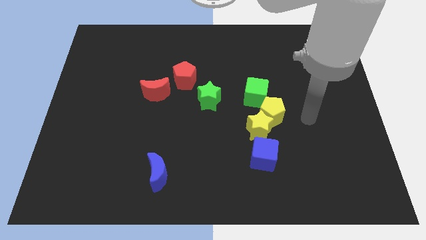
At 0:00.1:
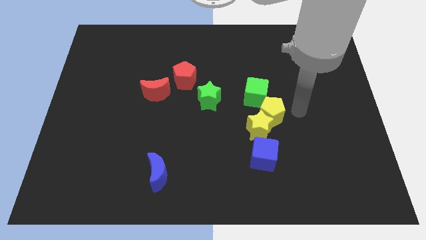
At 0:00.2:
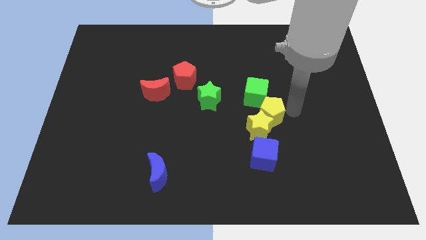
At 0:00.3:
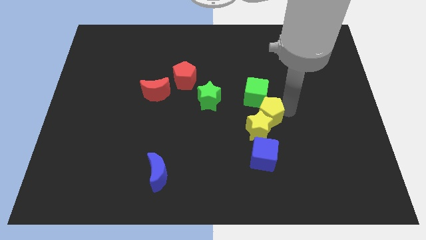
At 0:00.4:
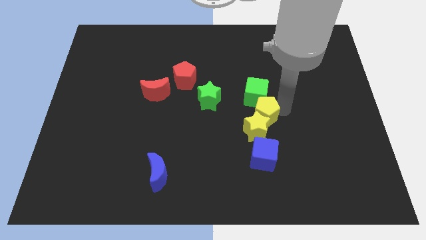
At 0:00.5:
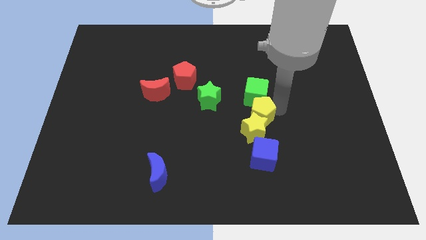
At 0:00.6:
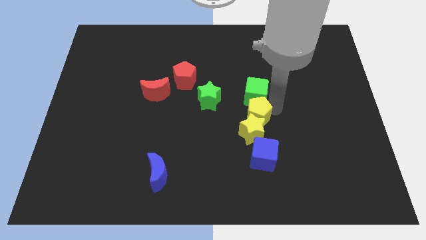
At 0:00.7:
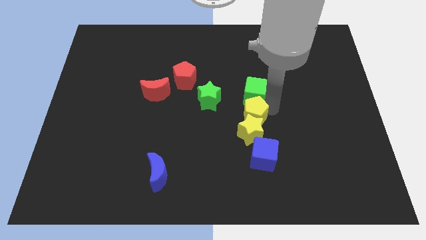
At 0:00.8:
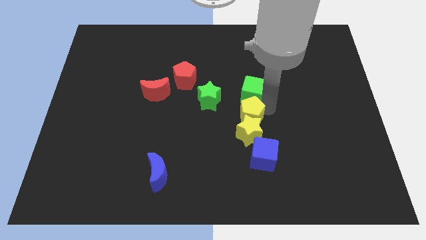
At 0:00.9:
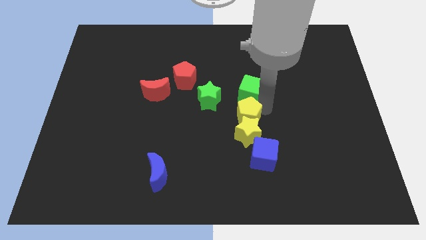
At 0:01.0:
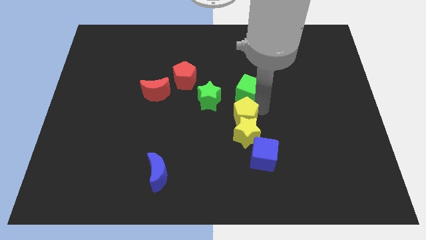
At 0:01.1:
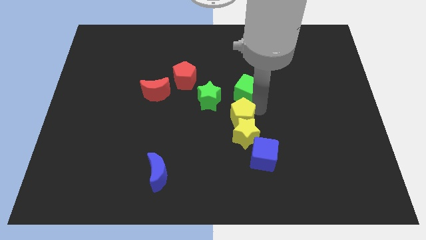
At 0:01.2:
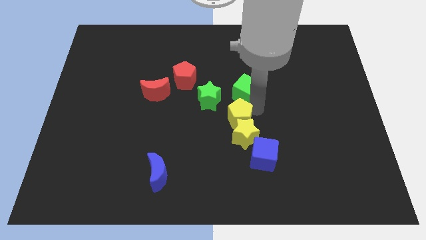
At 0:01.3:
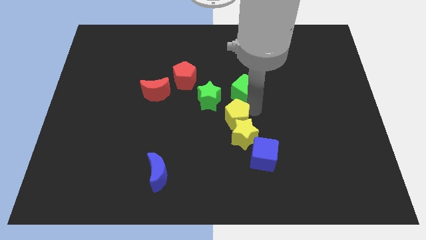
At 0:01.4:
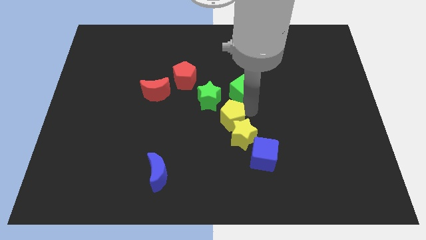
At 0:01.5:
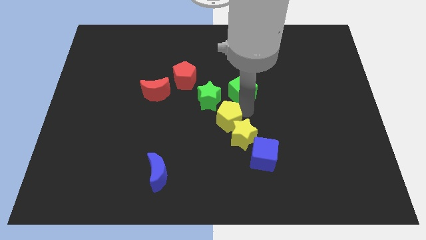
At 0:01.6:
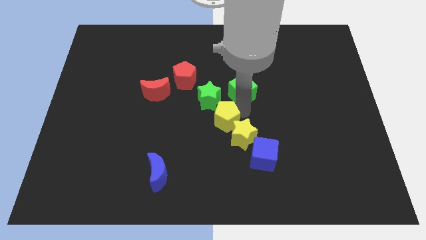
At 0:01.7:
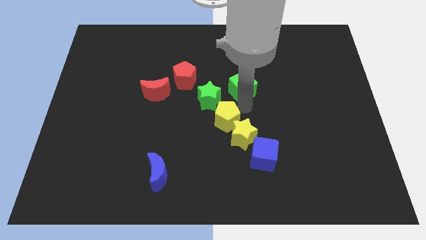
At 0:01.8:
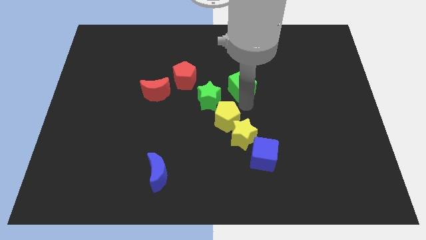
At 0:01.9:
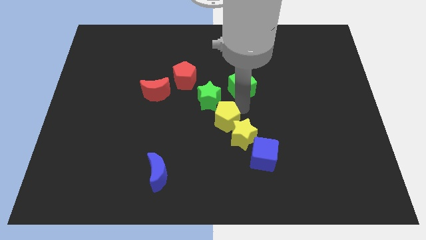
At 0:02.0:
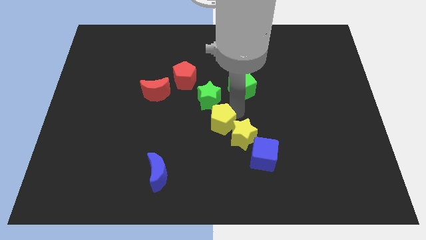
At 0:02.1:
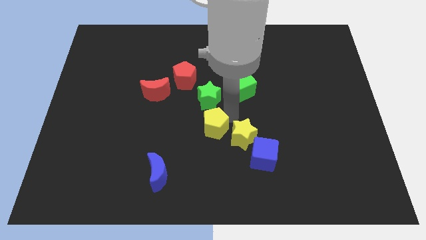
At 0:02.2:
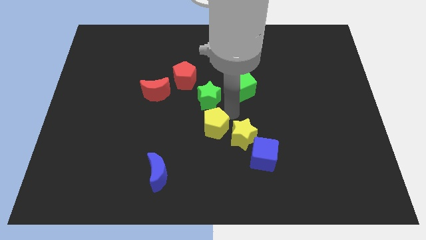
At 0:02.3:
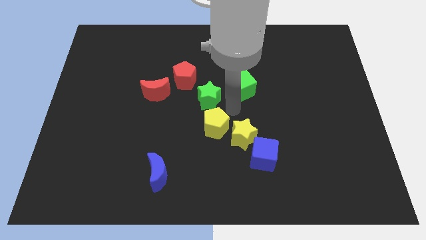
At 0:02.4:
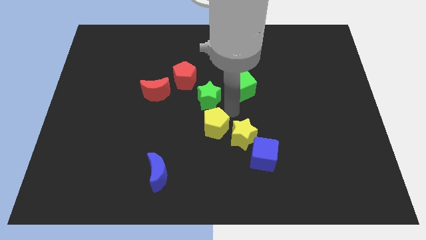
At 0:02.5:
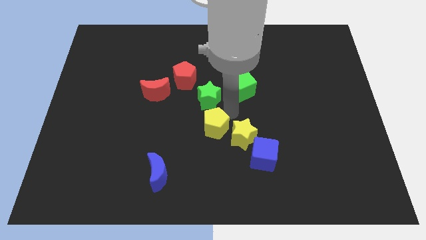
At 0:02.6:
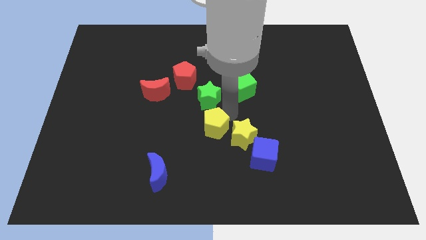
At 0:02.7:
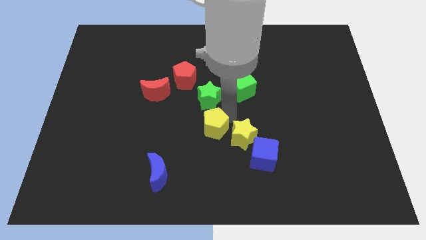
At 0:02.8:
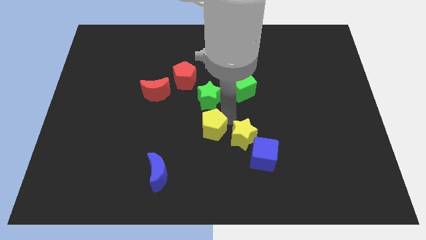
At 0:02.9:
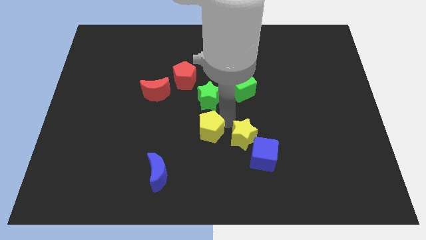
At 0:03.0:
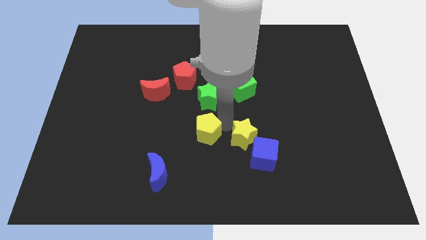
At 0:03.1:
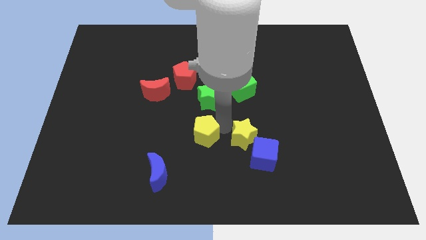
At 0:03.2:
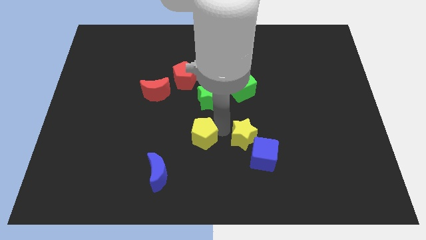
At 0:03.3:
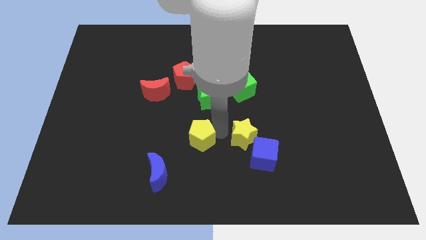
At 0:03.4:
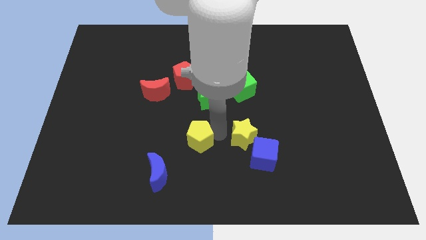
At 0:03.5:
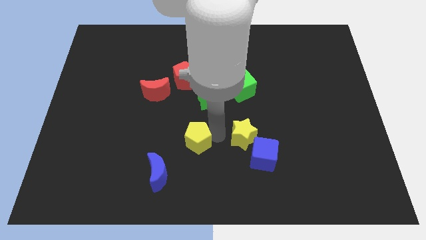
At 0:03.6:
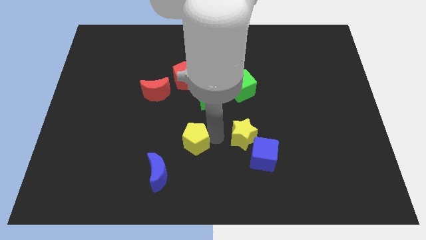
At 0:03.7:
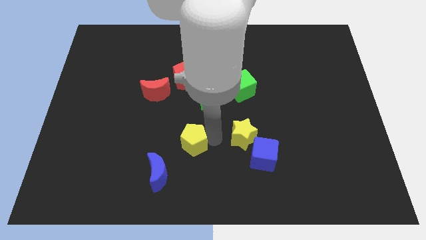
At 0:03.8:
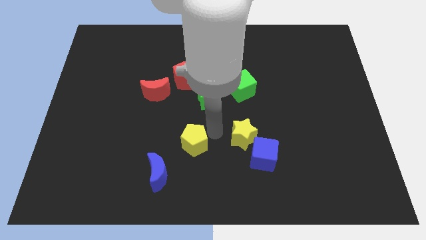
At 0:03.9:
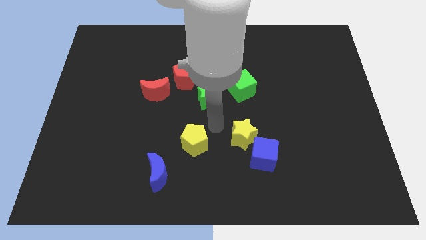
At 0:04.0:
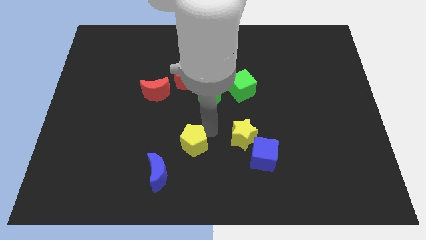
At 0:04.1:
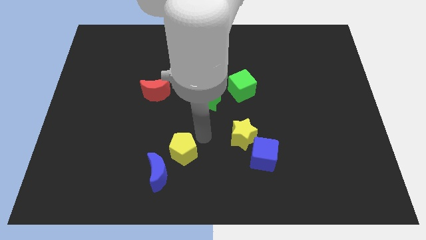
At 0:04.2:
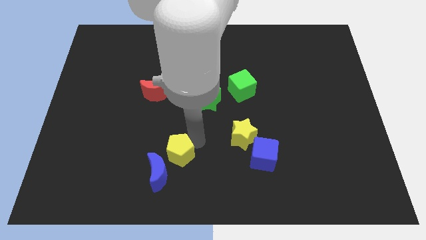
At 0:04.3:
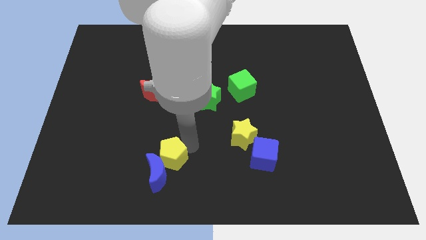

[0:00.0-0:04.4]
push the yellow pentagon close to the blue moon

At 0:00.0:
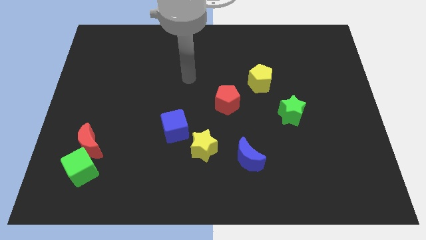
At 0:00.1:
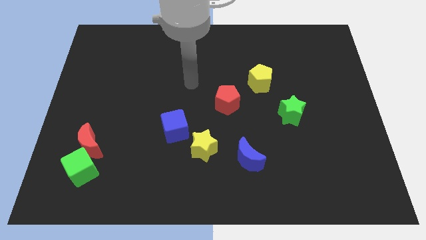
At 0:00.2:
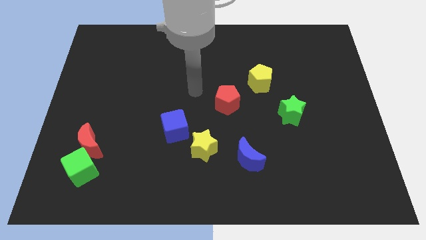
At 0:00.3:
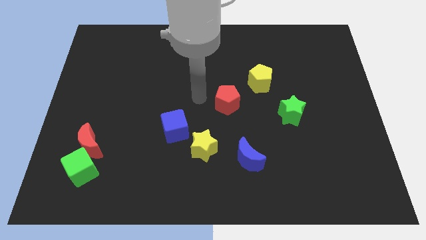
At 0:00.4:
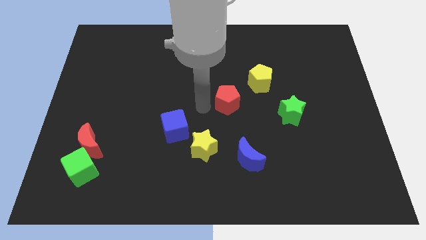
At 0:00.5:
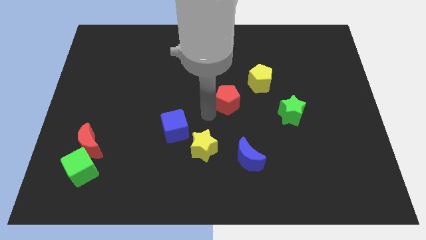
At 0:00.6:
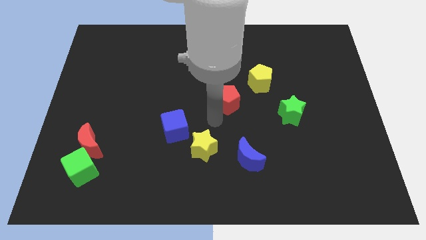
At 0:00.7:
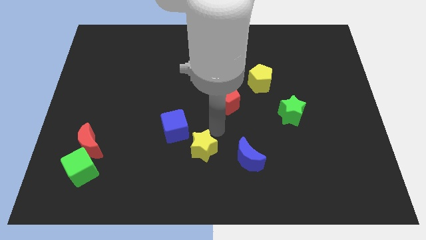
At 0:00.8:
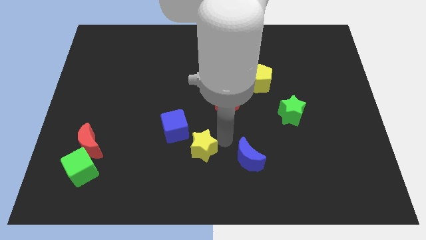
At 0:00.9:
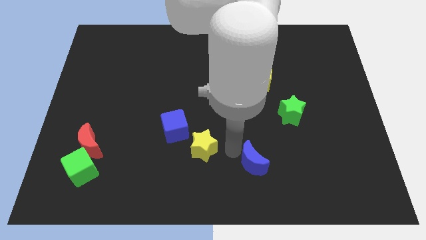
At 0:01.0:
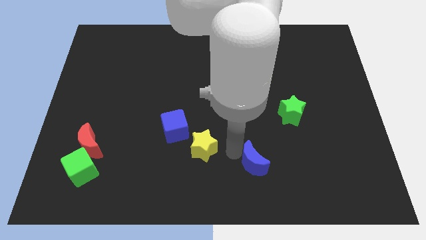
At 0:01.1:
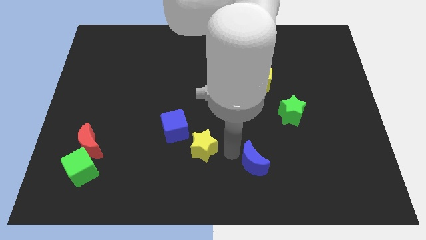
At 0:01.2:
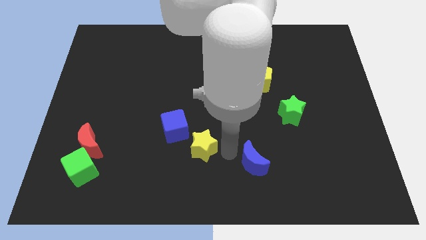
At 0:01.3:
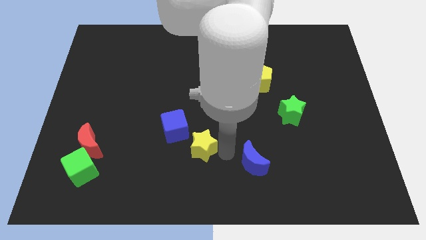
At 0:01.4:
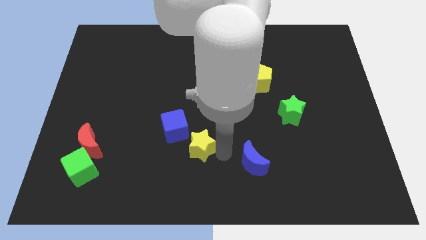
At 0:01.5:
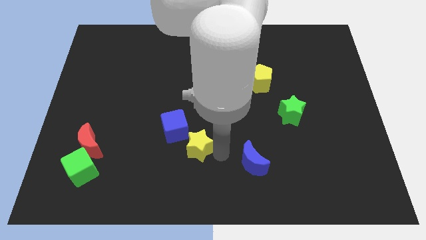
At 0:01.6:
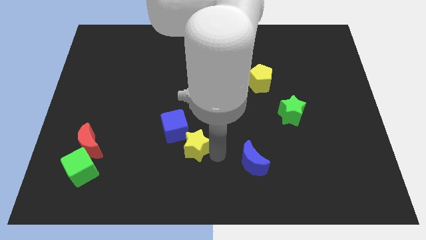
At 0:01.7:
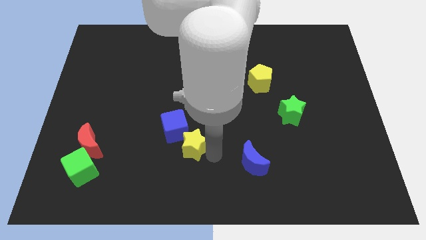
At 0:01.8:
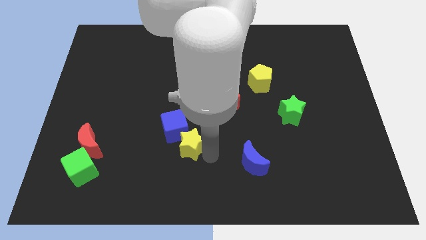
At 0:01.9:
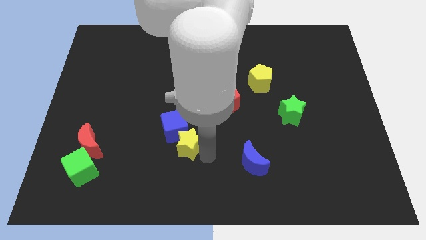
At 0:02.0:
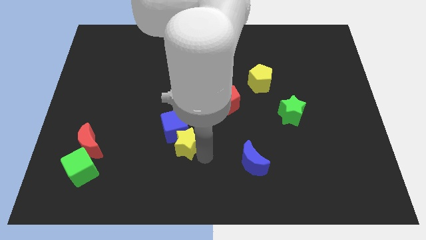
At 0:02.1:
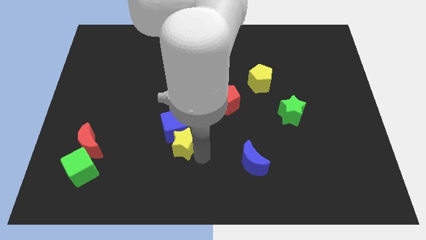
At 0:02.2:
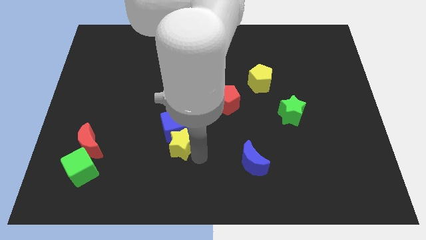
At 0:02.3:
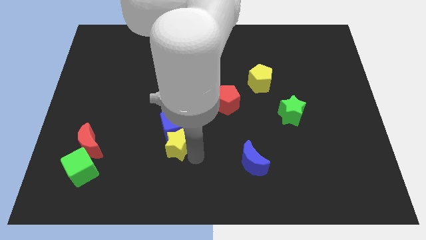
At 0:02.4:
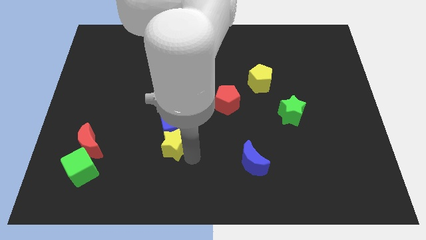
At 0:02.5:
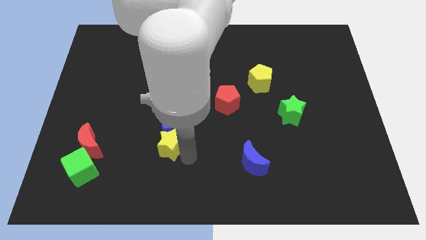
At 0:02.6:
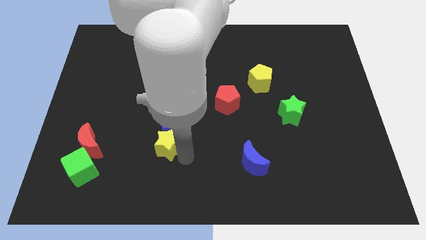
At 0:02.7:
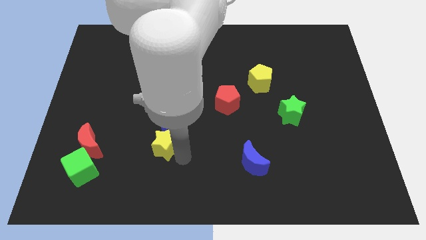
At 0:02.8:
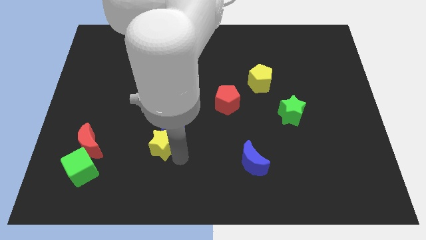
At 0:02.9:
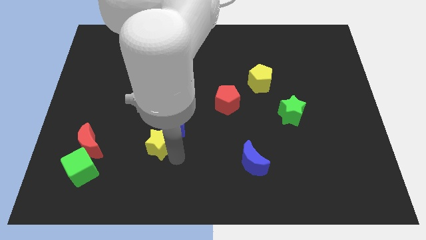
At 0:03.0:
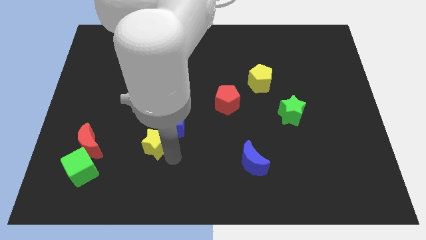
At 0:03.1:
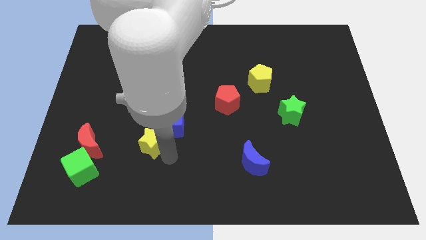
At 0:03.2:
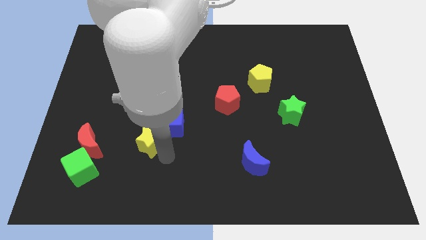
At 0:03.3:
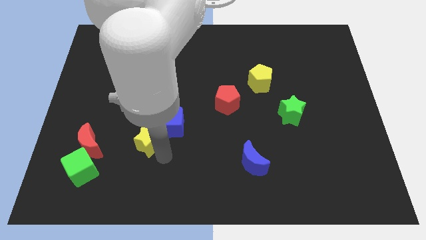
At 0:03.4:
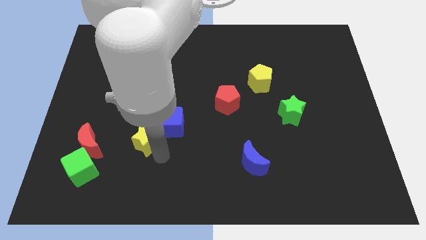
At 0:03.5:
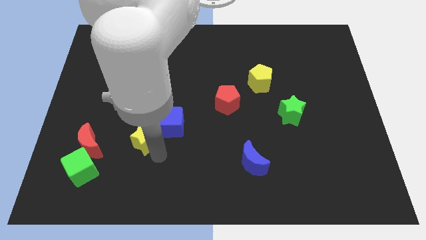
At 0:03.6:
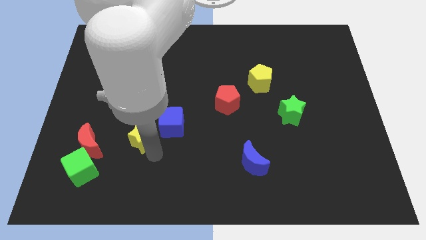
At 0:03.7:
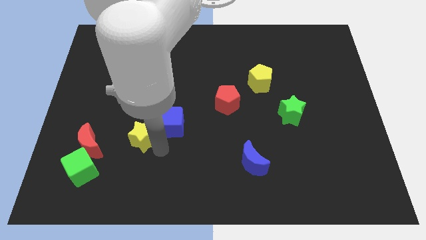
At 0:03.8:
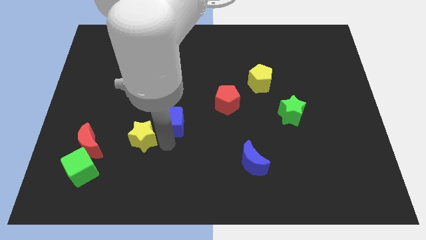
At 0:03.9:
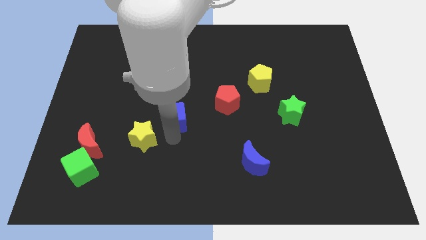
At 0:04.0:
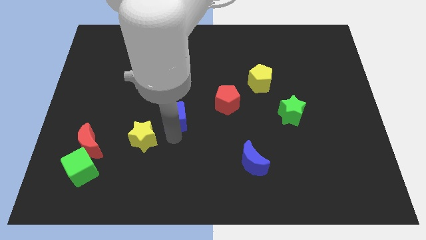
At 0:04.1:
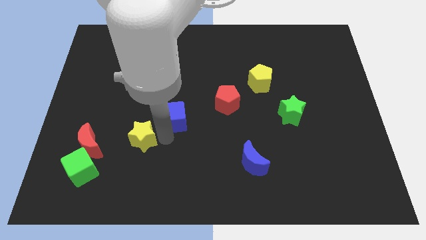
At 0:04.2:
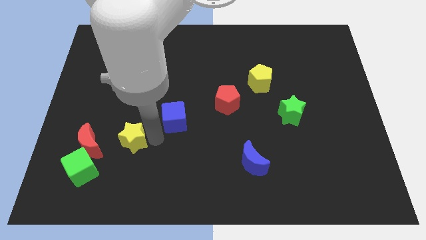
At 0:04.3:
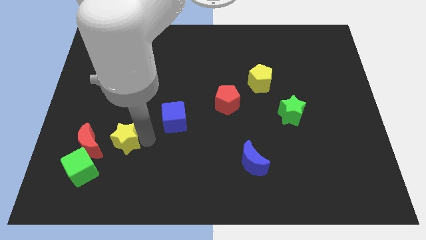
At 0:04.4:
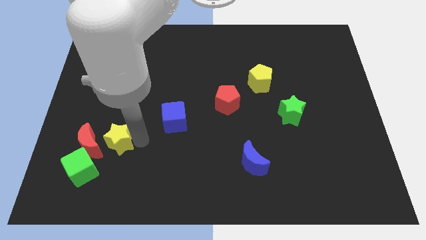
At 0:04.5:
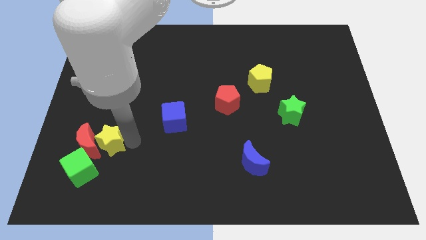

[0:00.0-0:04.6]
put the yellow star to the red moon
